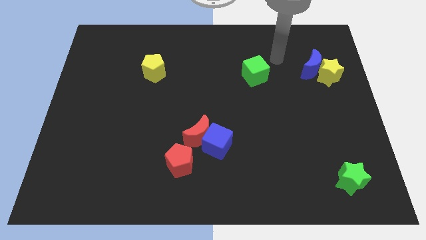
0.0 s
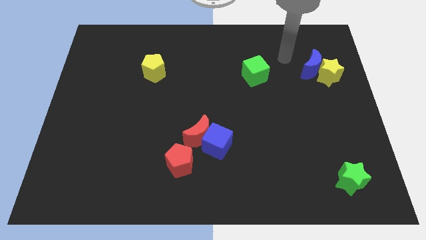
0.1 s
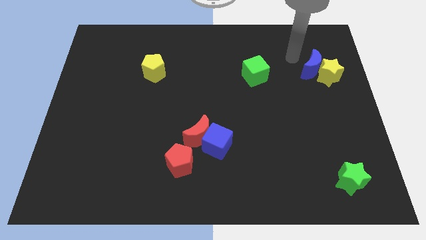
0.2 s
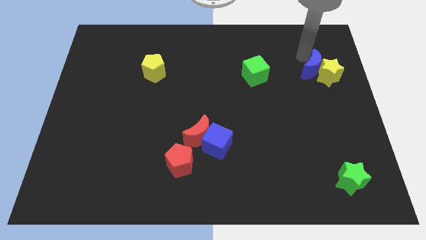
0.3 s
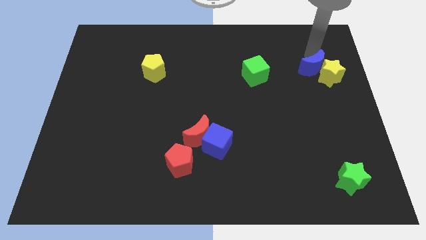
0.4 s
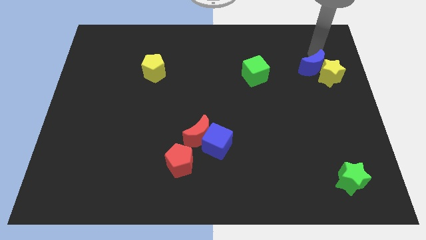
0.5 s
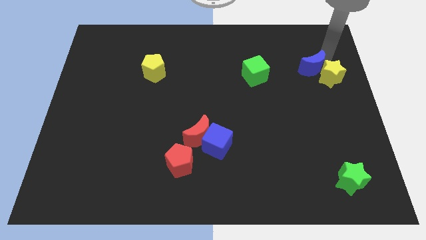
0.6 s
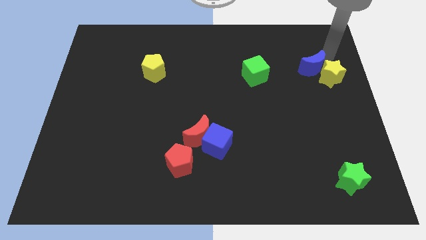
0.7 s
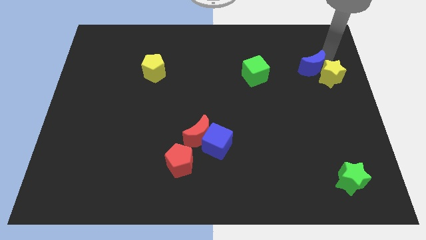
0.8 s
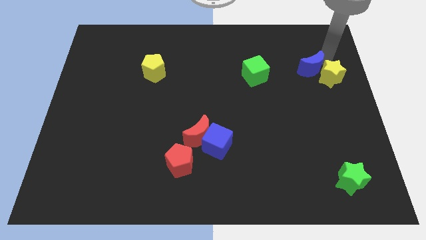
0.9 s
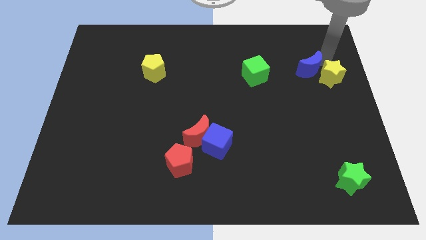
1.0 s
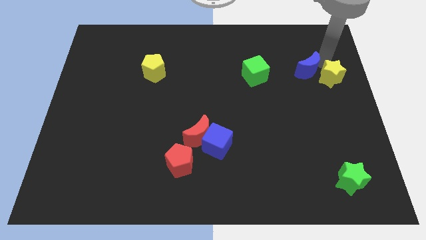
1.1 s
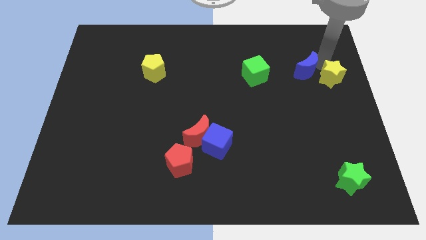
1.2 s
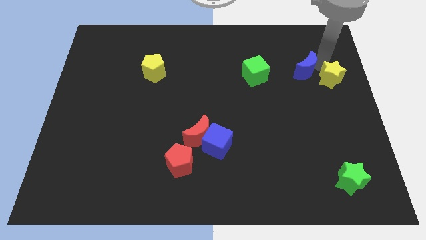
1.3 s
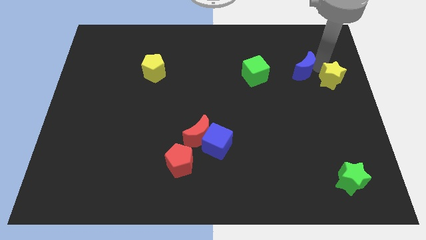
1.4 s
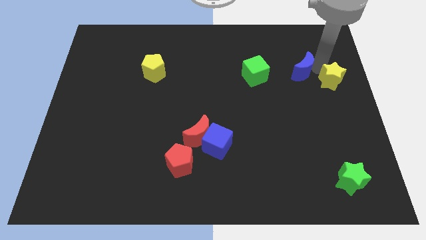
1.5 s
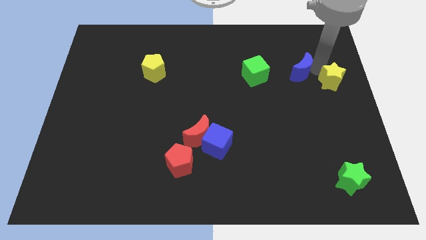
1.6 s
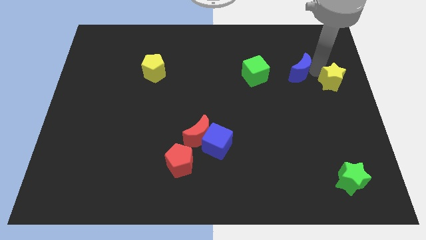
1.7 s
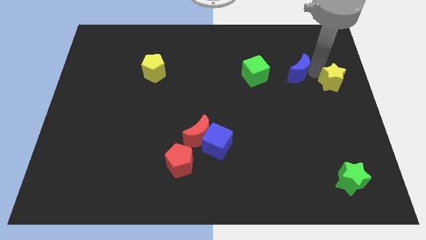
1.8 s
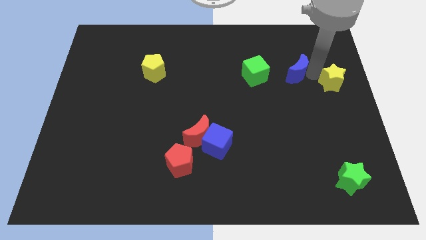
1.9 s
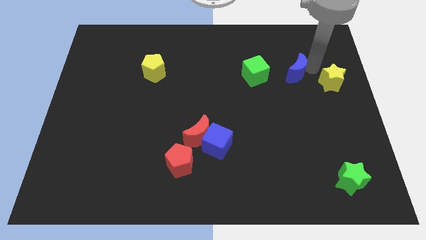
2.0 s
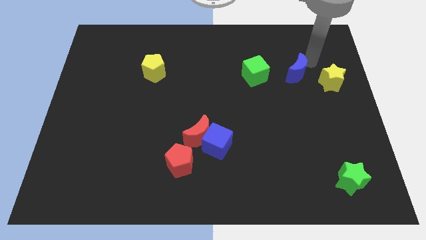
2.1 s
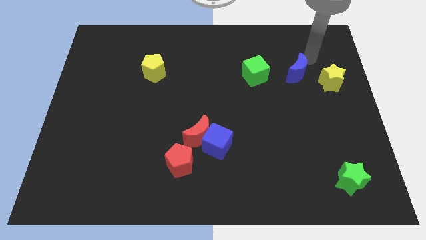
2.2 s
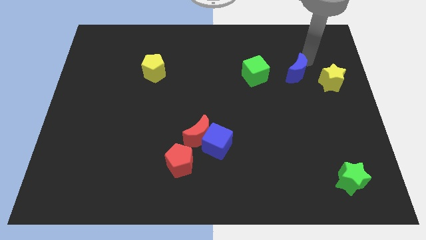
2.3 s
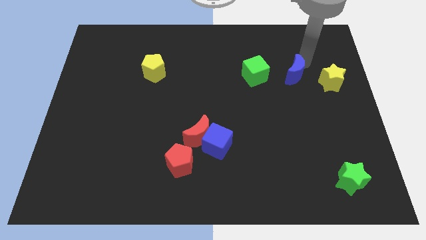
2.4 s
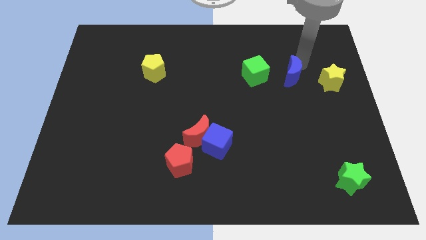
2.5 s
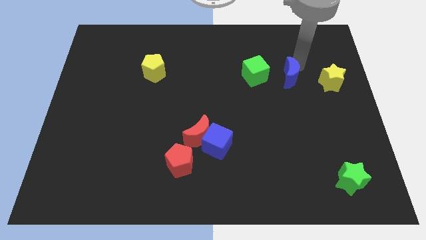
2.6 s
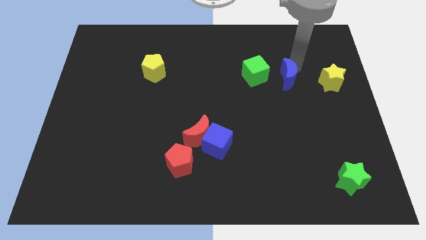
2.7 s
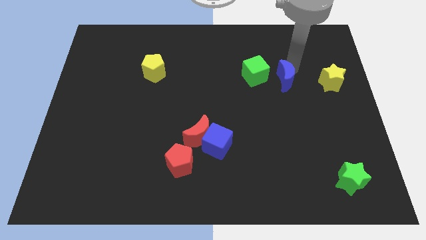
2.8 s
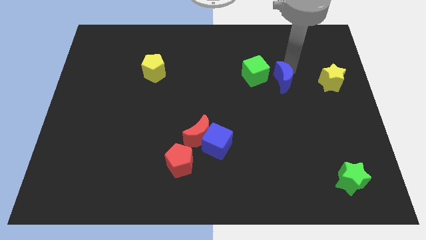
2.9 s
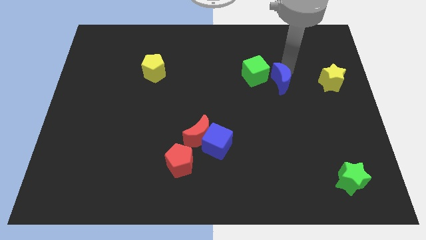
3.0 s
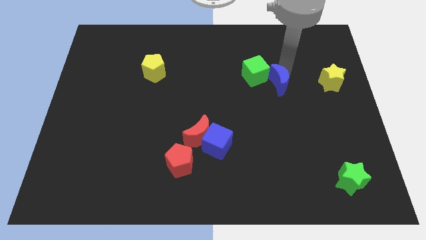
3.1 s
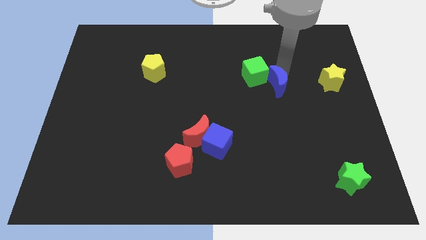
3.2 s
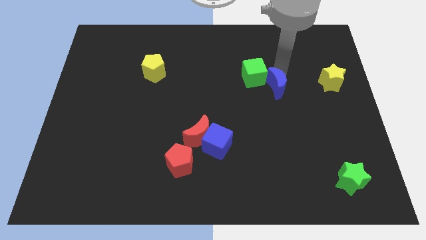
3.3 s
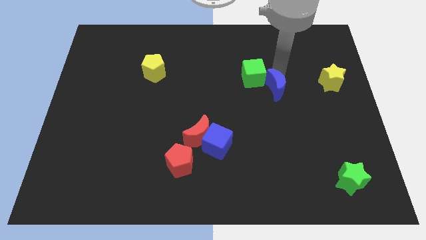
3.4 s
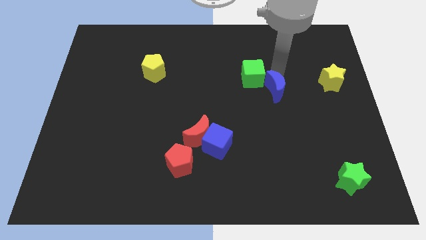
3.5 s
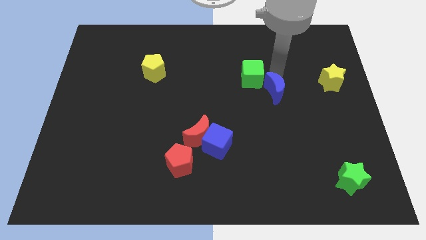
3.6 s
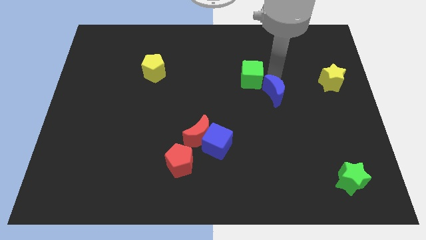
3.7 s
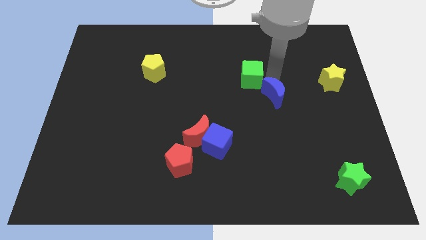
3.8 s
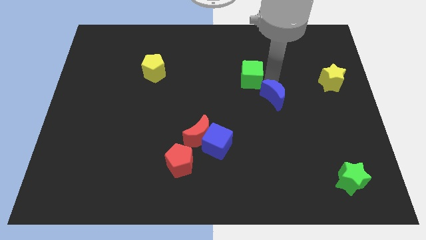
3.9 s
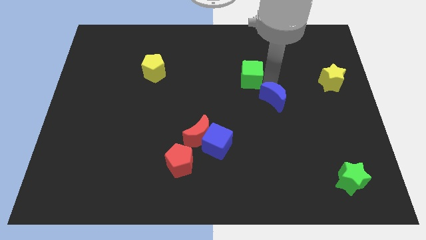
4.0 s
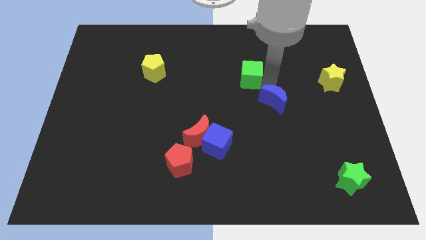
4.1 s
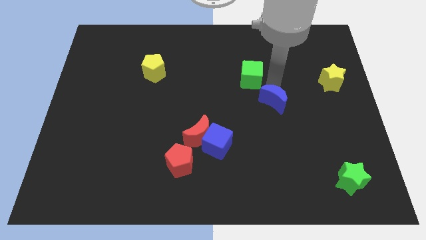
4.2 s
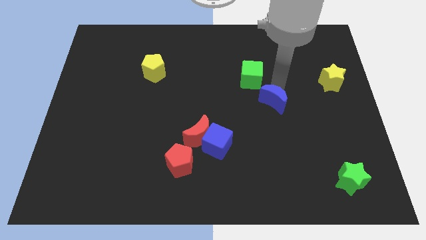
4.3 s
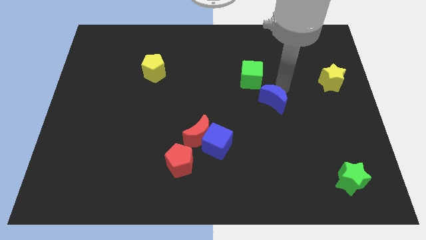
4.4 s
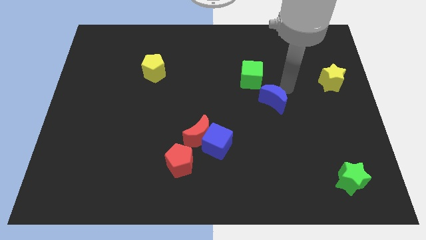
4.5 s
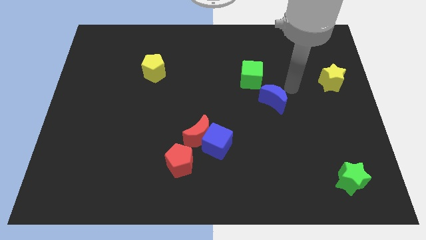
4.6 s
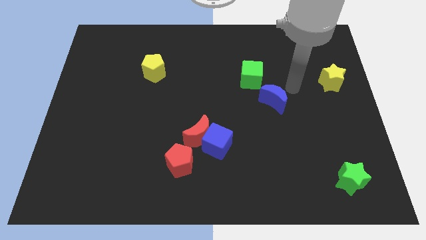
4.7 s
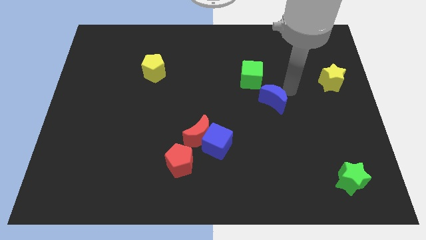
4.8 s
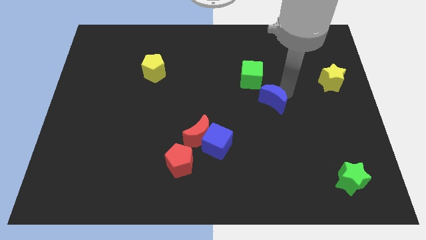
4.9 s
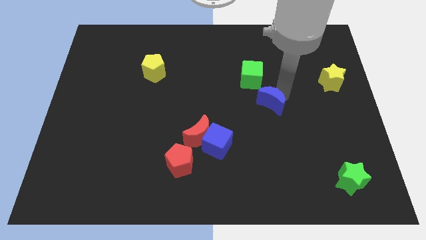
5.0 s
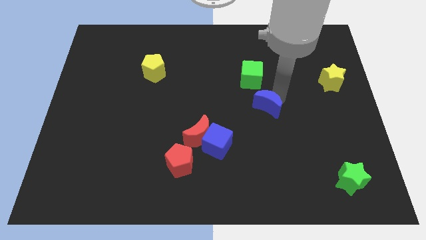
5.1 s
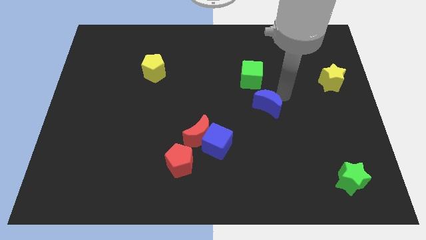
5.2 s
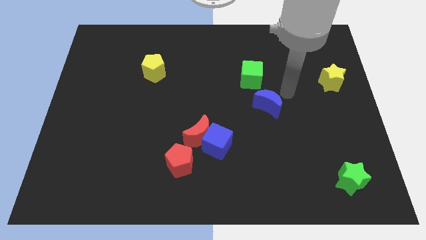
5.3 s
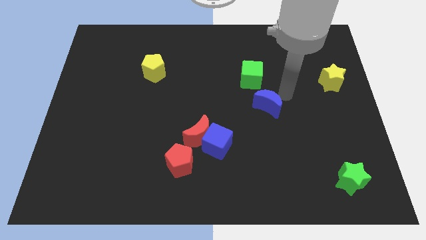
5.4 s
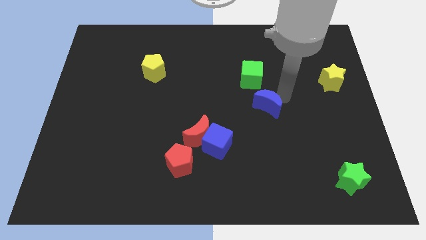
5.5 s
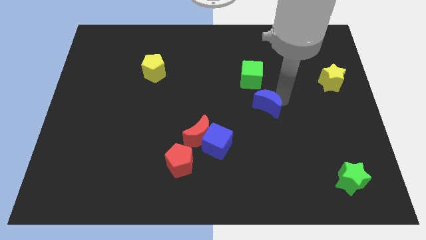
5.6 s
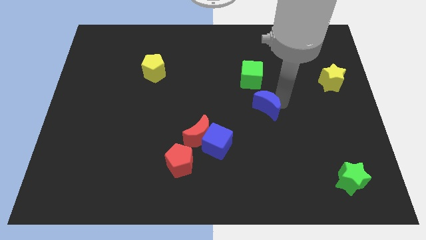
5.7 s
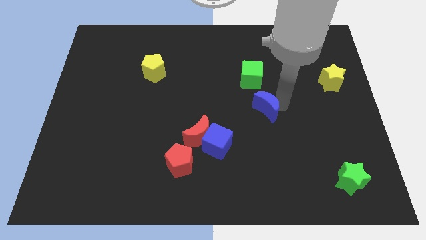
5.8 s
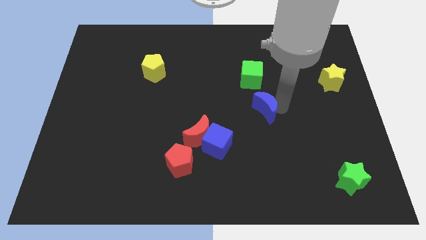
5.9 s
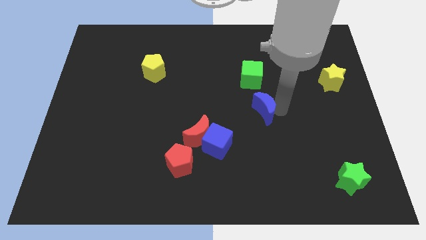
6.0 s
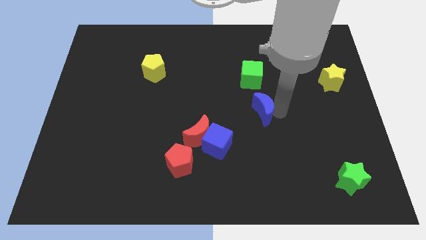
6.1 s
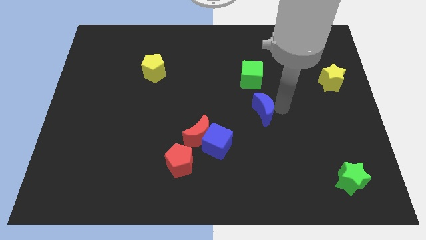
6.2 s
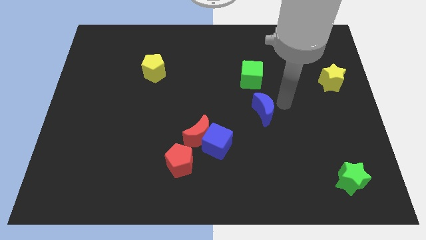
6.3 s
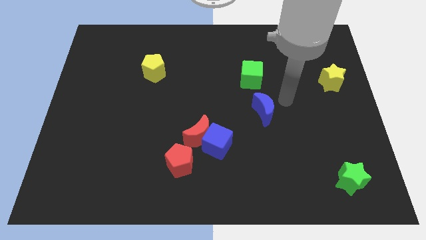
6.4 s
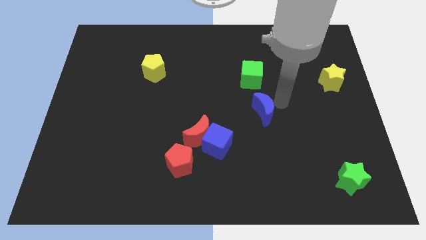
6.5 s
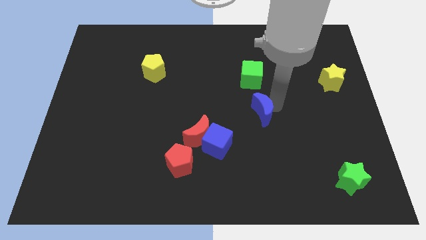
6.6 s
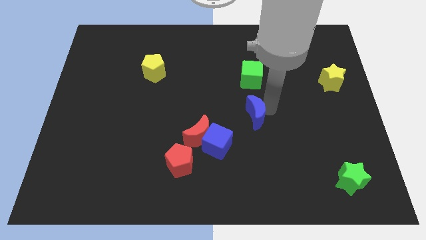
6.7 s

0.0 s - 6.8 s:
move the blue moon to the top right side of the blue cube
